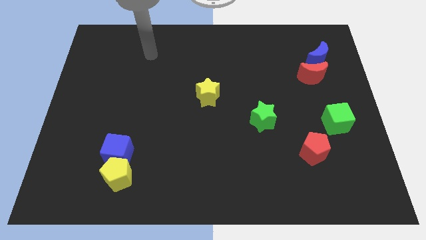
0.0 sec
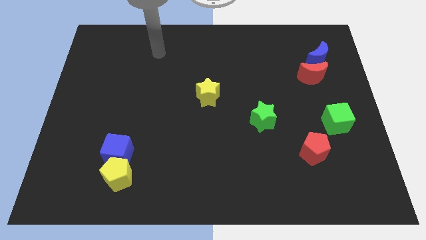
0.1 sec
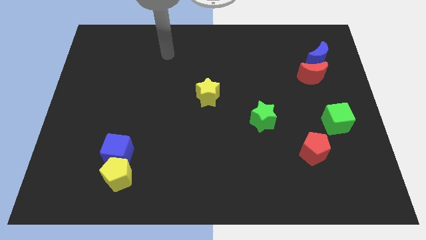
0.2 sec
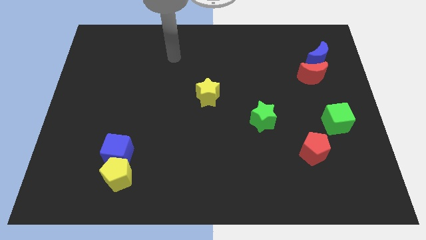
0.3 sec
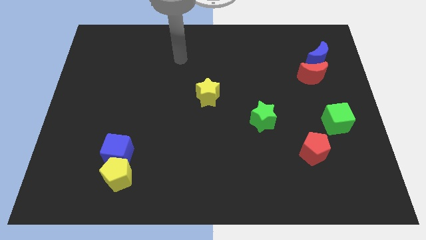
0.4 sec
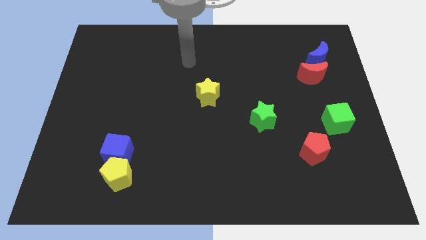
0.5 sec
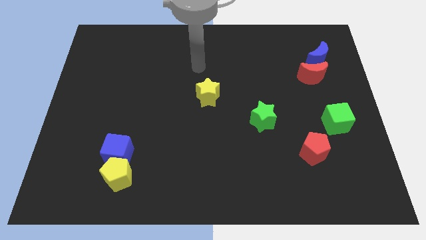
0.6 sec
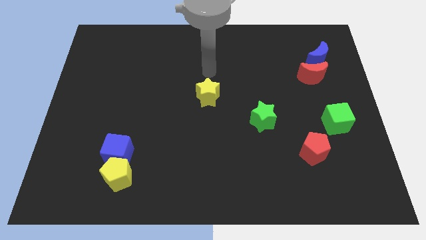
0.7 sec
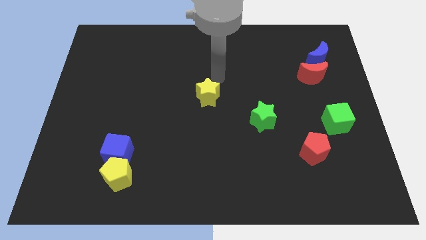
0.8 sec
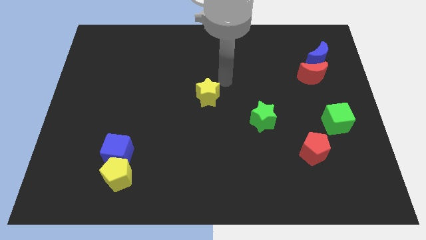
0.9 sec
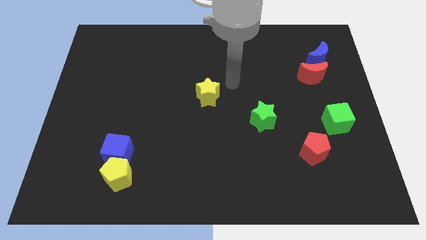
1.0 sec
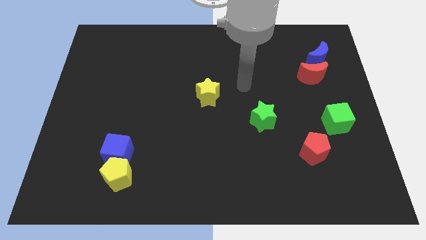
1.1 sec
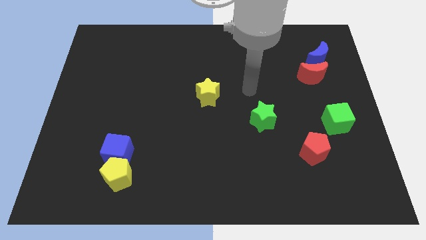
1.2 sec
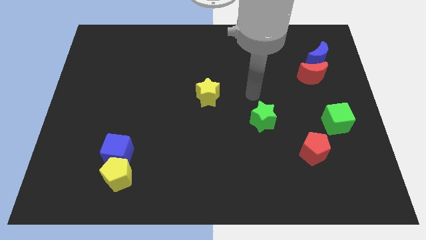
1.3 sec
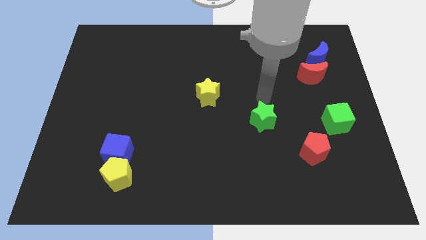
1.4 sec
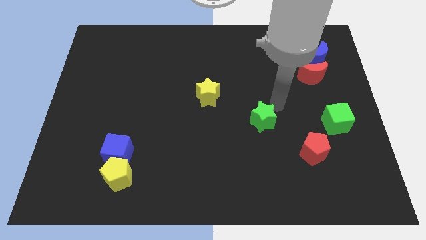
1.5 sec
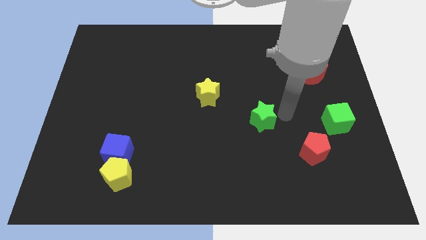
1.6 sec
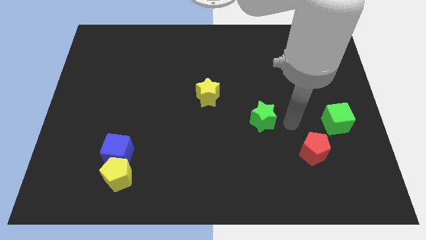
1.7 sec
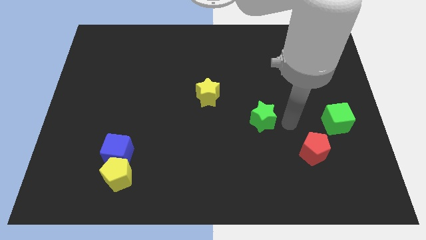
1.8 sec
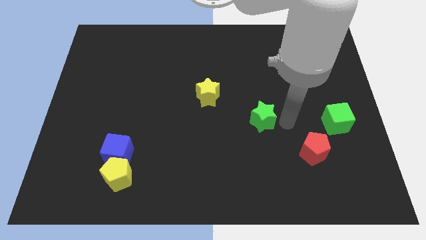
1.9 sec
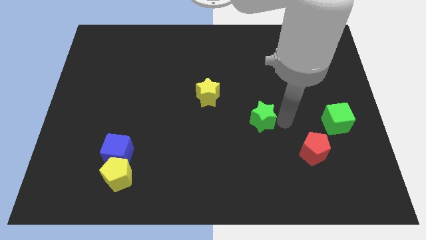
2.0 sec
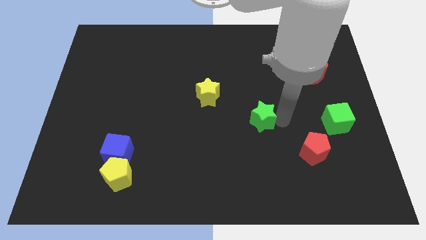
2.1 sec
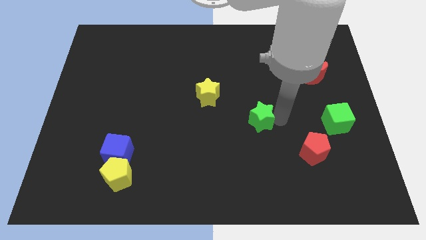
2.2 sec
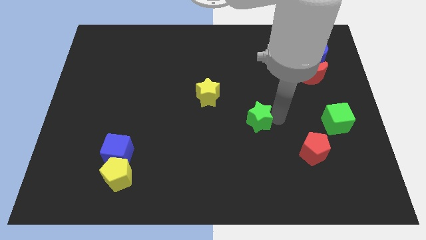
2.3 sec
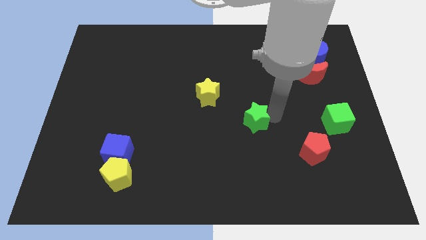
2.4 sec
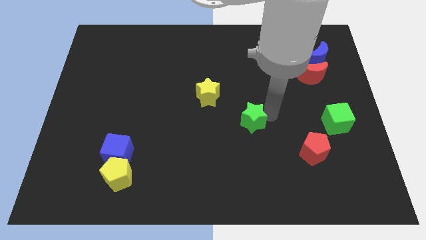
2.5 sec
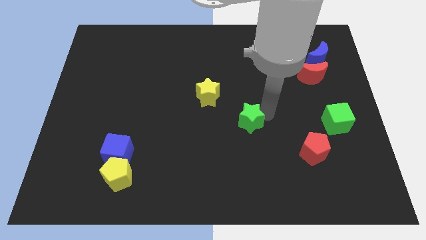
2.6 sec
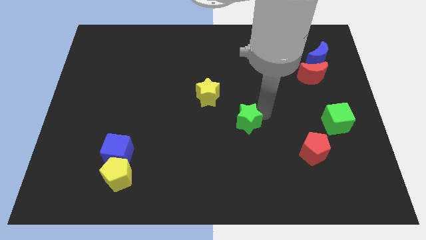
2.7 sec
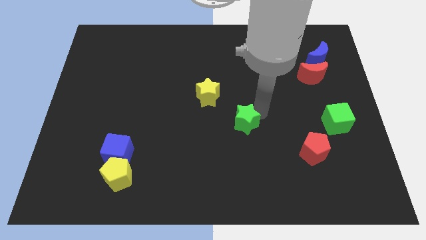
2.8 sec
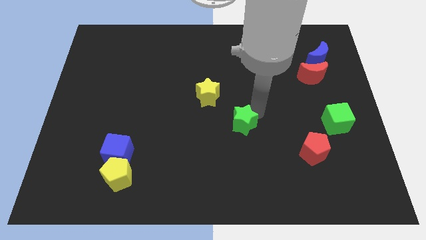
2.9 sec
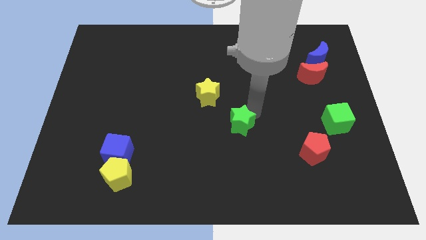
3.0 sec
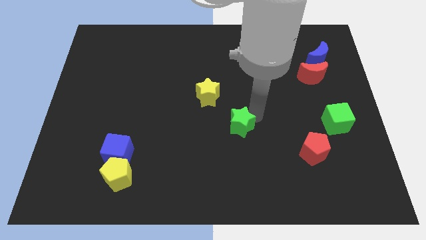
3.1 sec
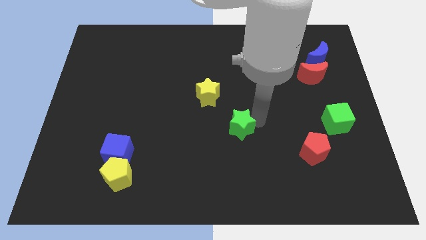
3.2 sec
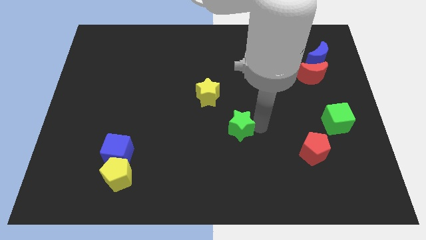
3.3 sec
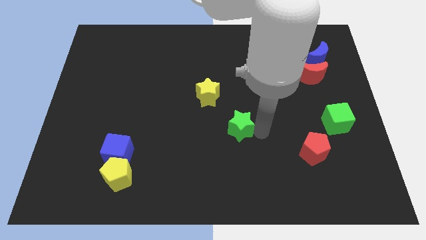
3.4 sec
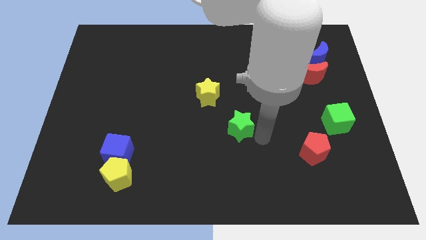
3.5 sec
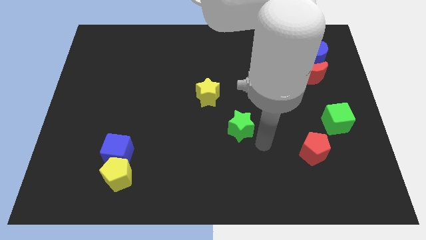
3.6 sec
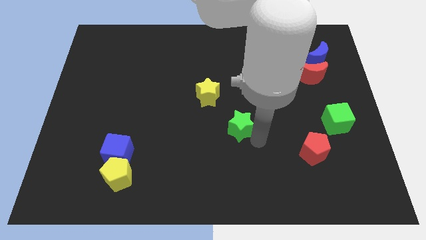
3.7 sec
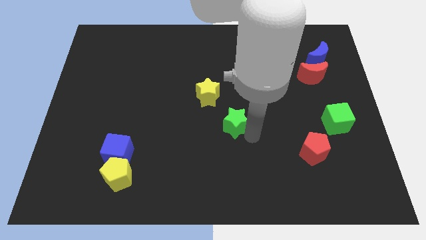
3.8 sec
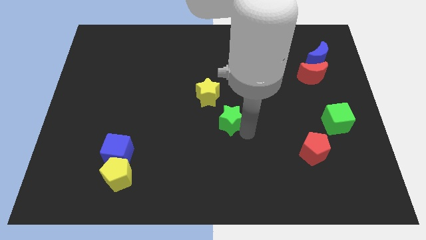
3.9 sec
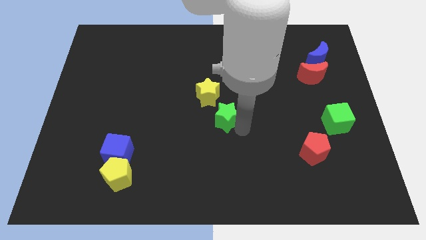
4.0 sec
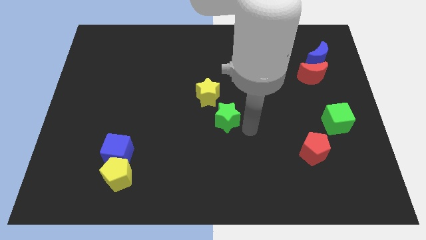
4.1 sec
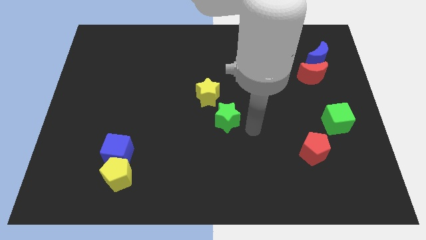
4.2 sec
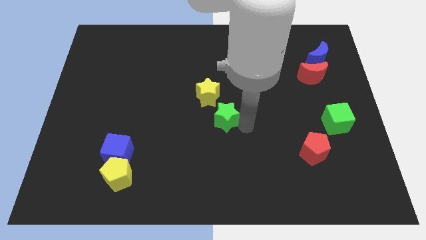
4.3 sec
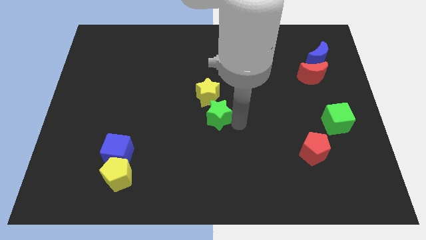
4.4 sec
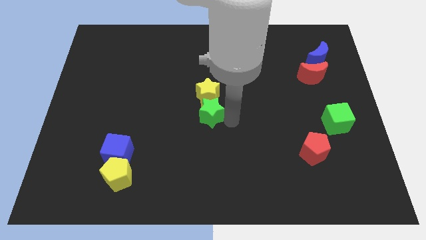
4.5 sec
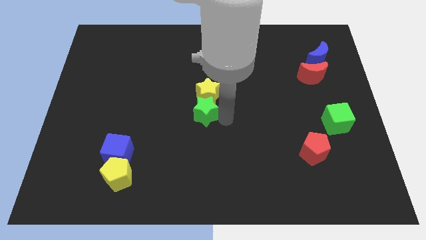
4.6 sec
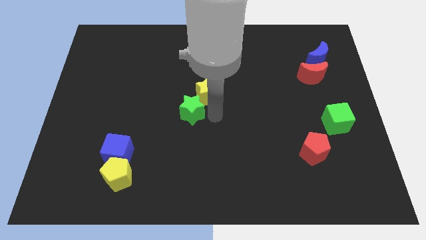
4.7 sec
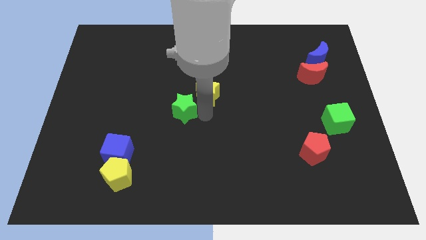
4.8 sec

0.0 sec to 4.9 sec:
put the green star to the left of the yellow star

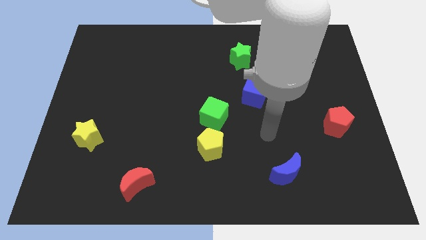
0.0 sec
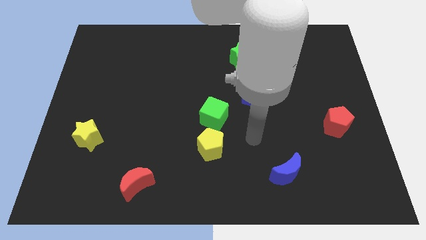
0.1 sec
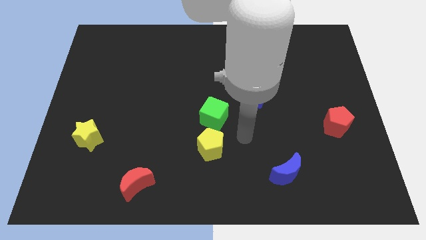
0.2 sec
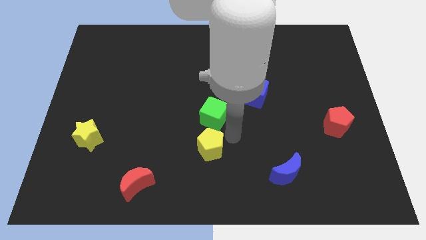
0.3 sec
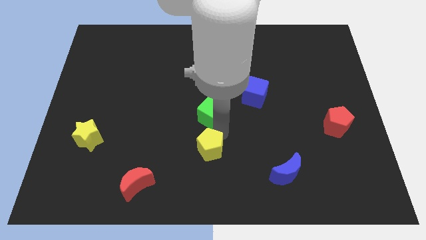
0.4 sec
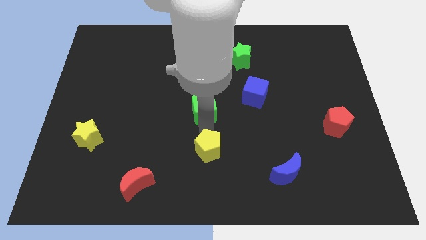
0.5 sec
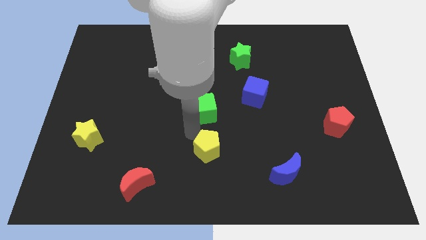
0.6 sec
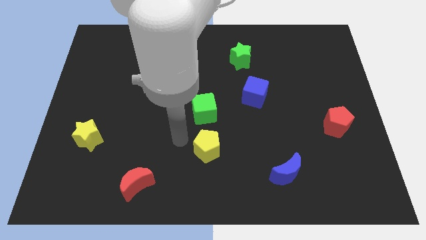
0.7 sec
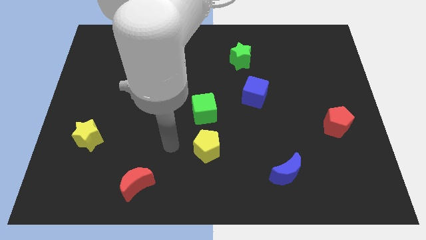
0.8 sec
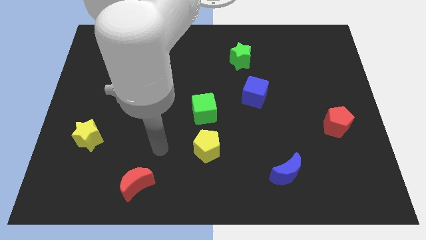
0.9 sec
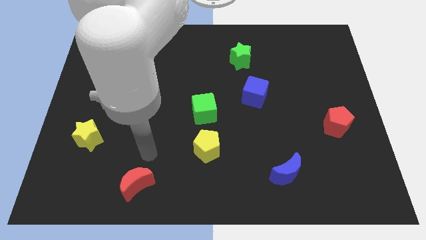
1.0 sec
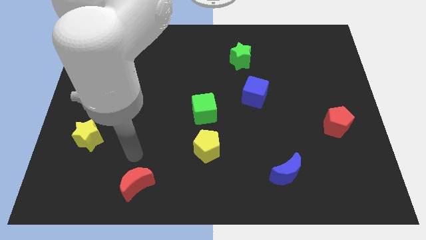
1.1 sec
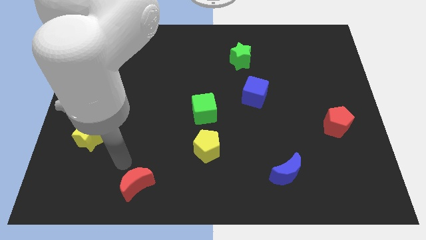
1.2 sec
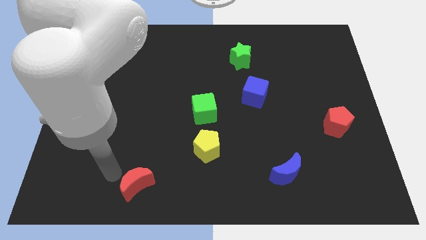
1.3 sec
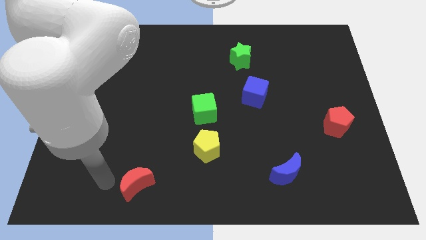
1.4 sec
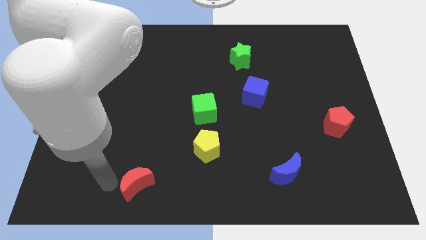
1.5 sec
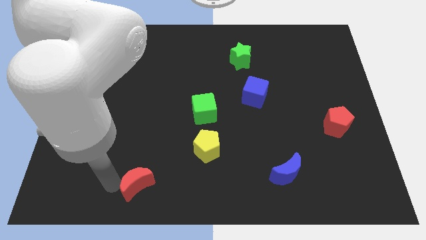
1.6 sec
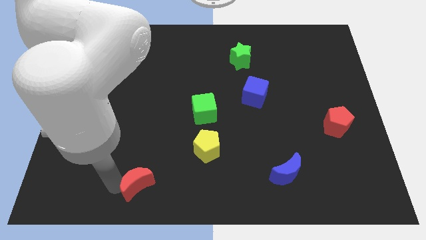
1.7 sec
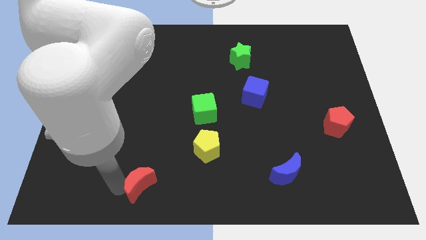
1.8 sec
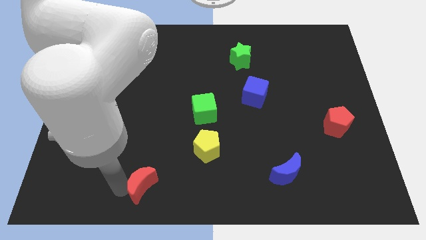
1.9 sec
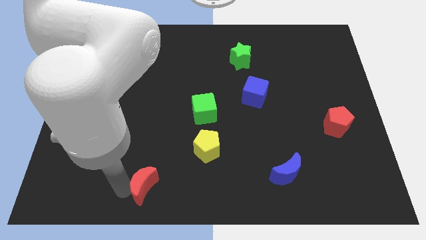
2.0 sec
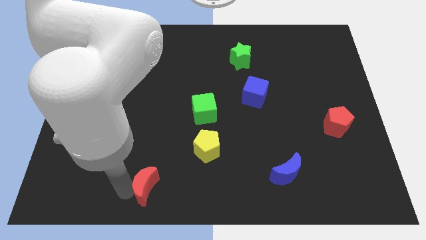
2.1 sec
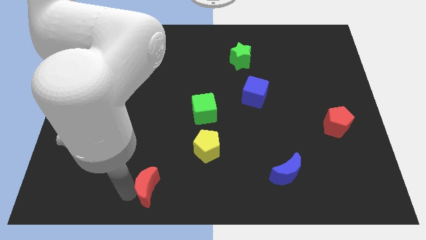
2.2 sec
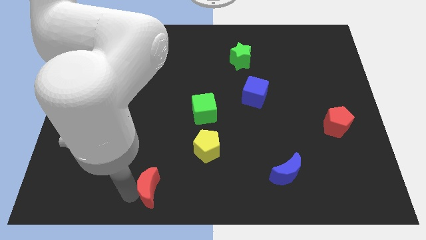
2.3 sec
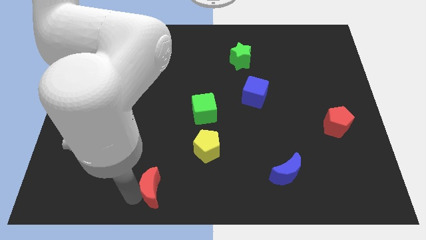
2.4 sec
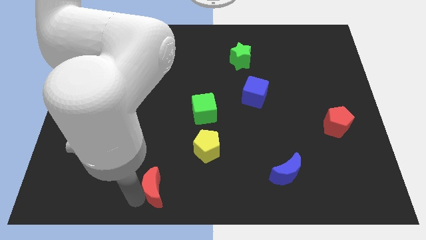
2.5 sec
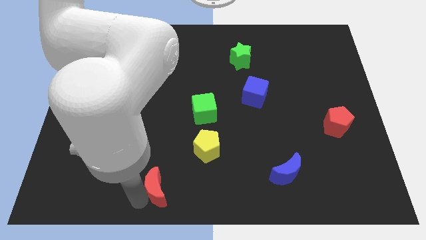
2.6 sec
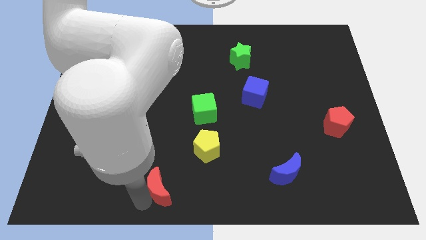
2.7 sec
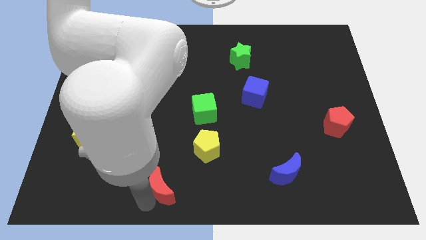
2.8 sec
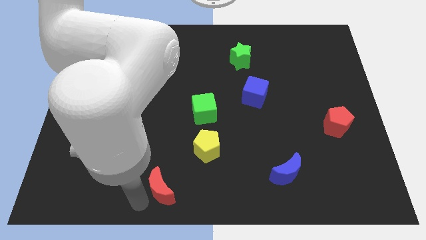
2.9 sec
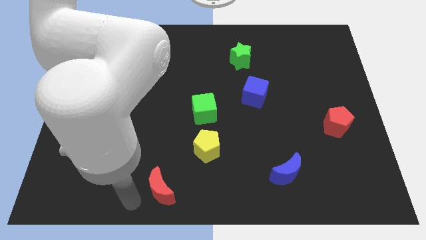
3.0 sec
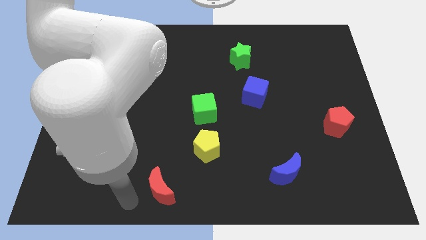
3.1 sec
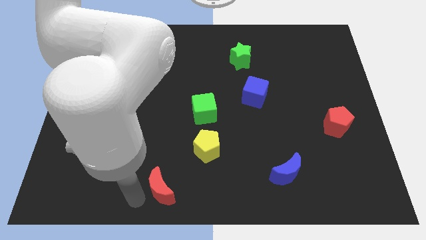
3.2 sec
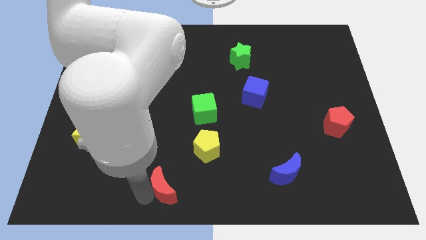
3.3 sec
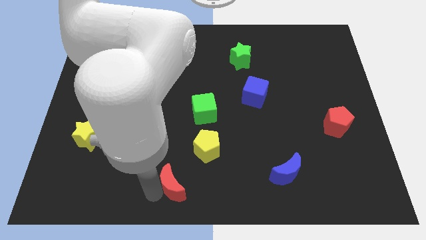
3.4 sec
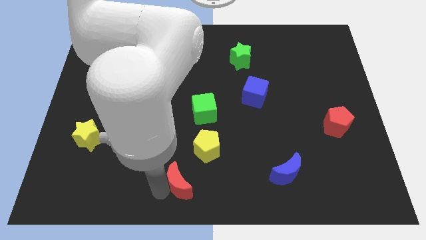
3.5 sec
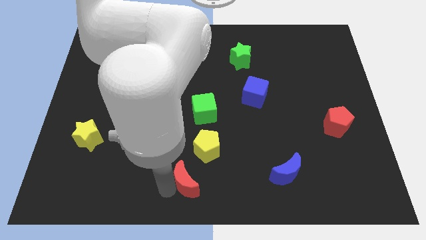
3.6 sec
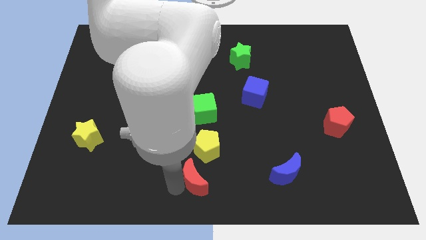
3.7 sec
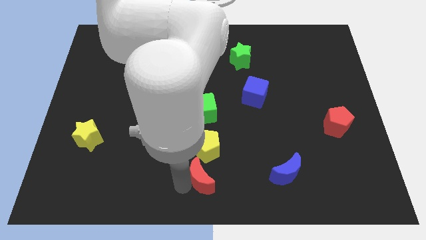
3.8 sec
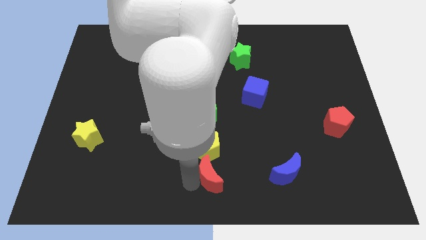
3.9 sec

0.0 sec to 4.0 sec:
push the red moon left of the blue moon
